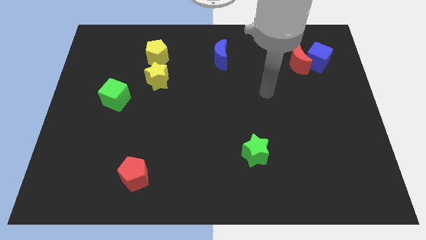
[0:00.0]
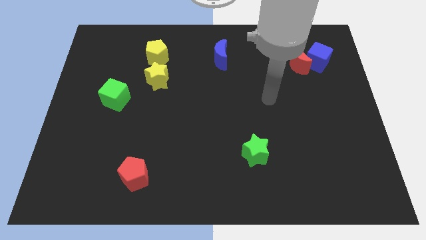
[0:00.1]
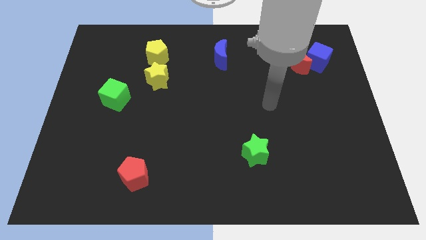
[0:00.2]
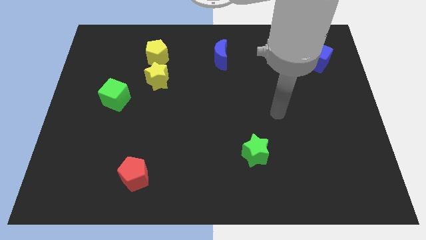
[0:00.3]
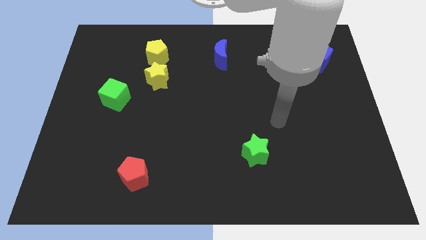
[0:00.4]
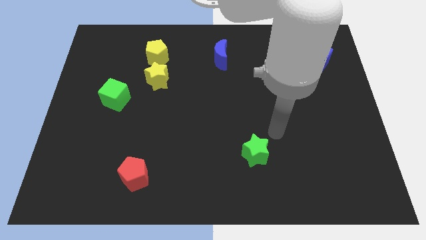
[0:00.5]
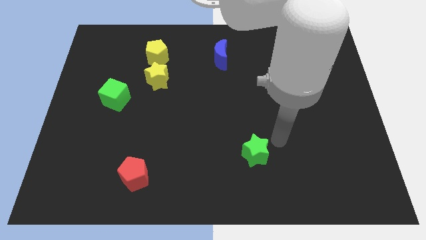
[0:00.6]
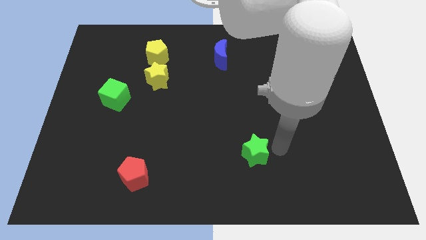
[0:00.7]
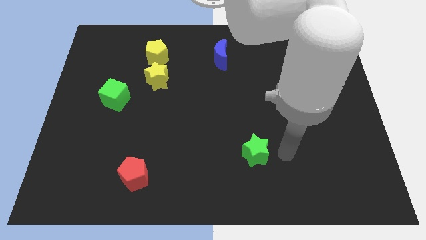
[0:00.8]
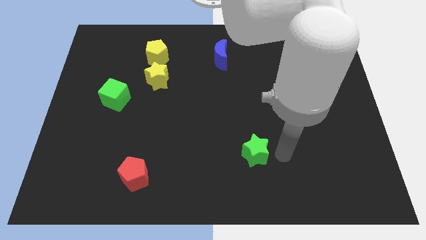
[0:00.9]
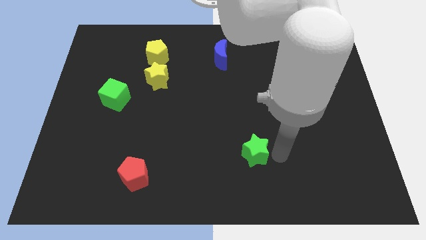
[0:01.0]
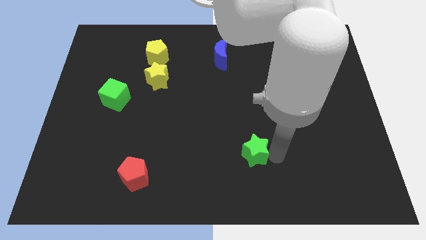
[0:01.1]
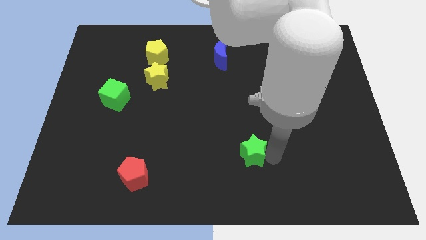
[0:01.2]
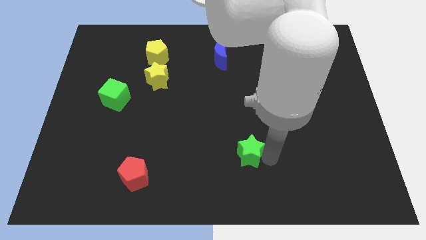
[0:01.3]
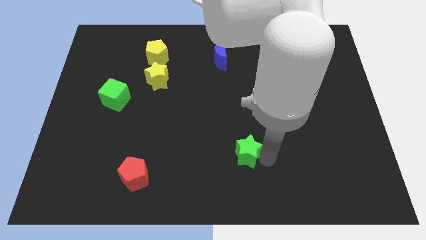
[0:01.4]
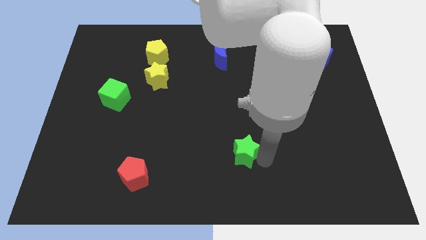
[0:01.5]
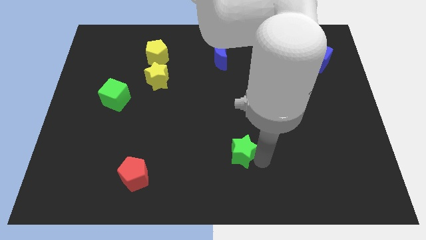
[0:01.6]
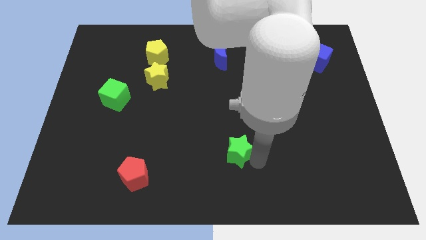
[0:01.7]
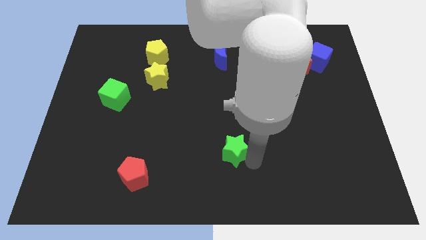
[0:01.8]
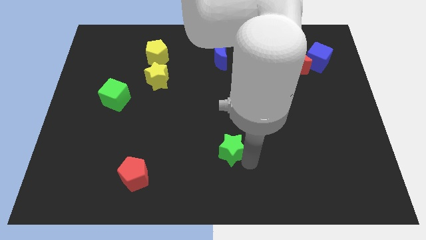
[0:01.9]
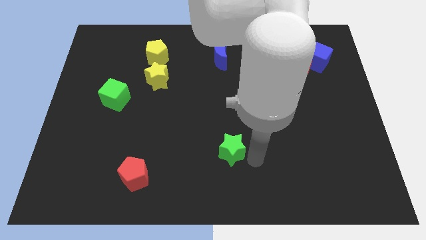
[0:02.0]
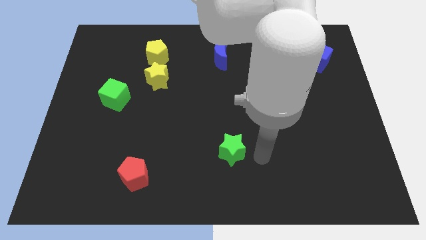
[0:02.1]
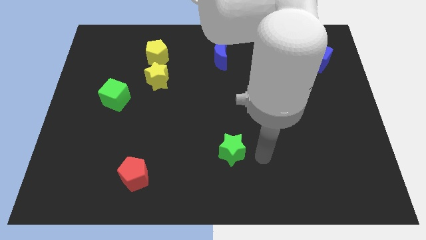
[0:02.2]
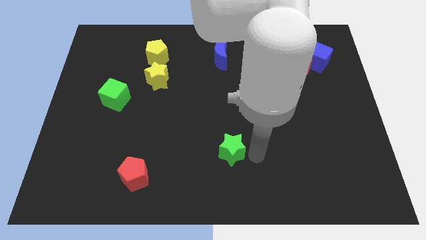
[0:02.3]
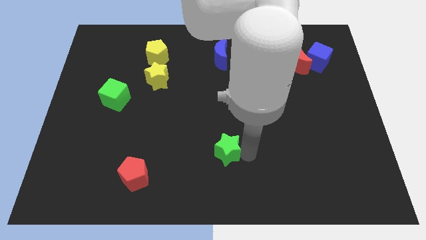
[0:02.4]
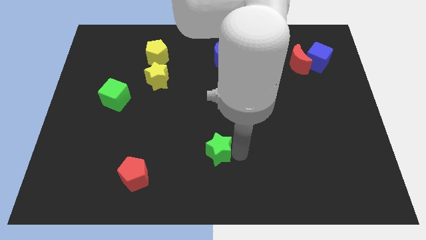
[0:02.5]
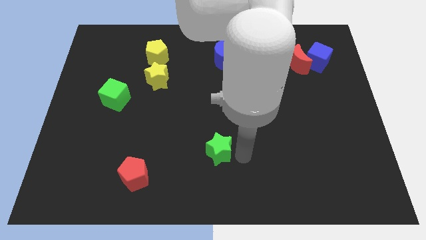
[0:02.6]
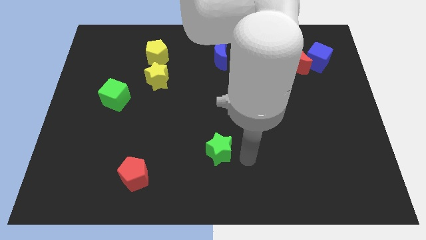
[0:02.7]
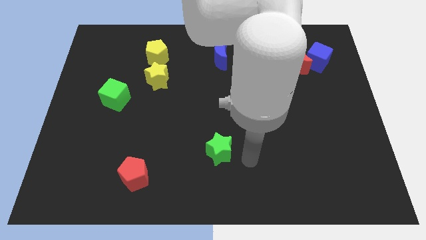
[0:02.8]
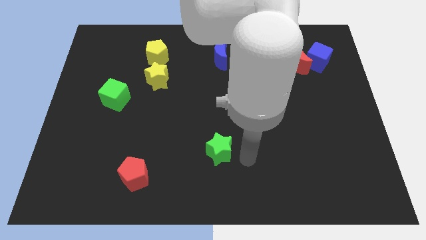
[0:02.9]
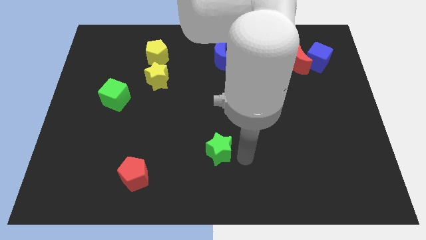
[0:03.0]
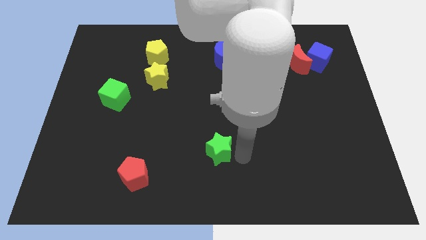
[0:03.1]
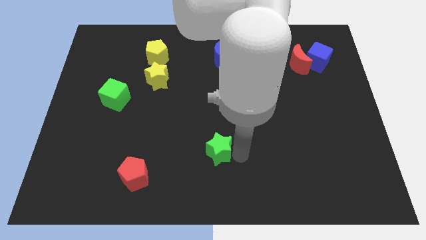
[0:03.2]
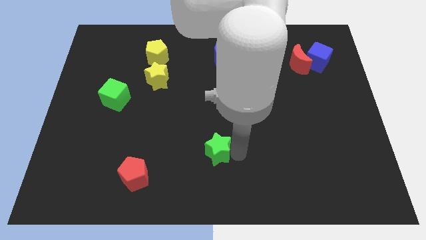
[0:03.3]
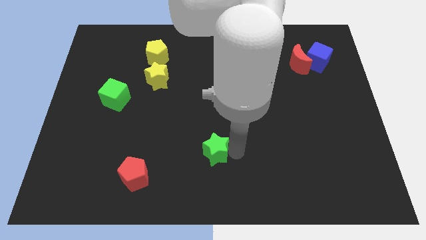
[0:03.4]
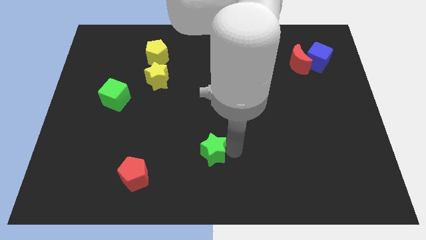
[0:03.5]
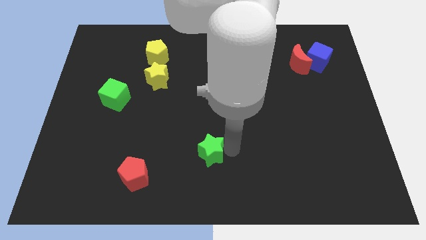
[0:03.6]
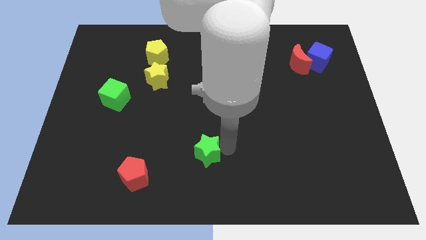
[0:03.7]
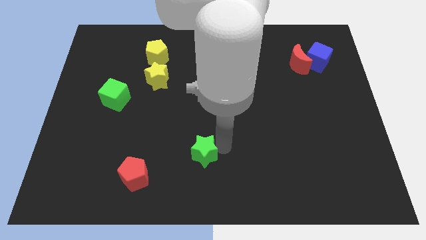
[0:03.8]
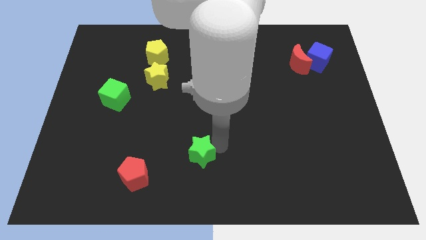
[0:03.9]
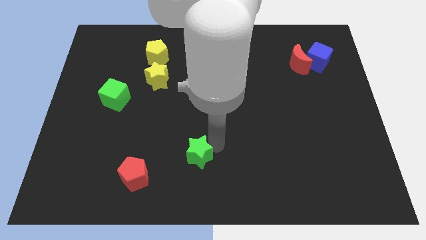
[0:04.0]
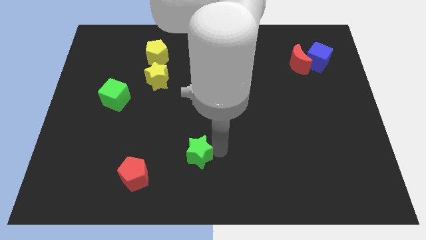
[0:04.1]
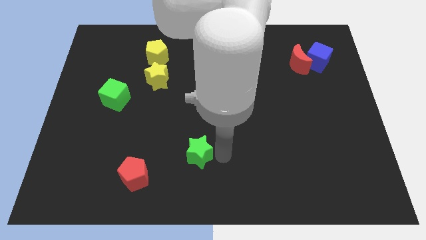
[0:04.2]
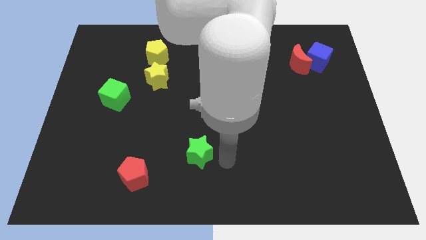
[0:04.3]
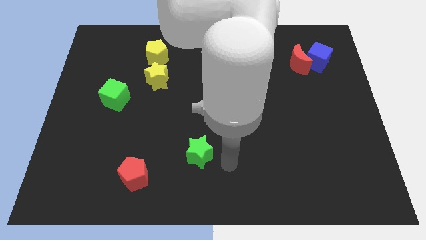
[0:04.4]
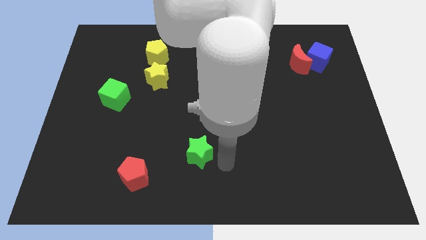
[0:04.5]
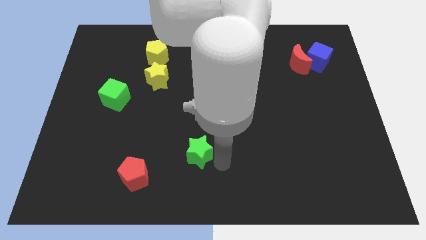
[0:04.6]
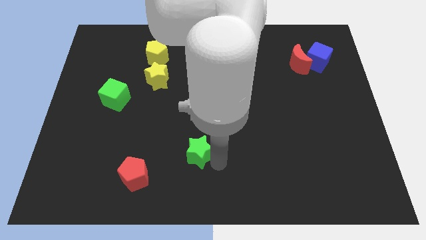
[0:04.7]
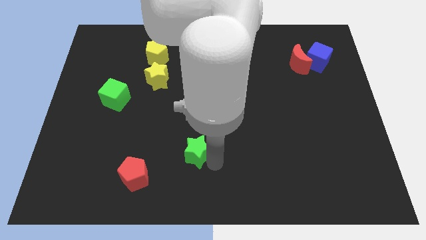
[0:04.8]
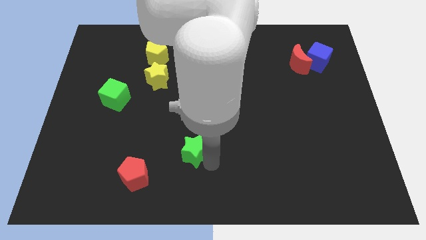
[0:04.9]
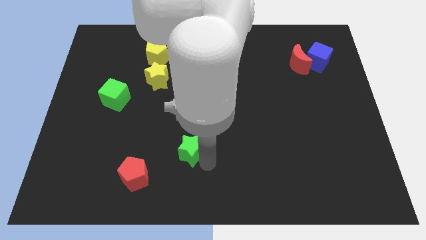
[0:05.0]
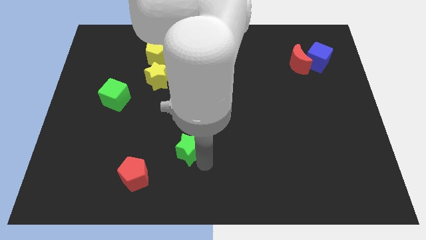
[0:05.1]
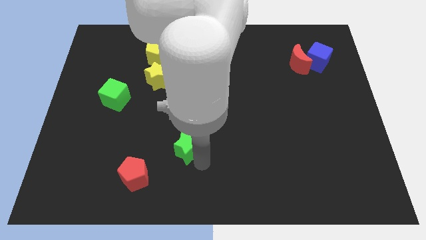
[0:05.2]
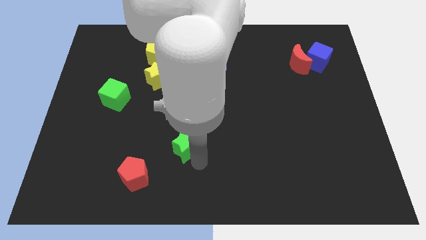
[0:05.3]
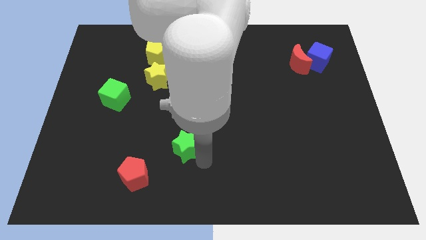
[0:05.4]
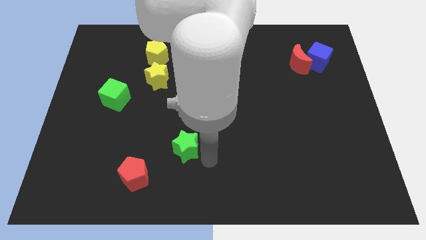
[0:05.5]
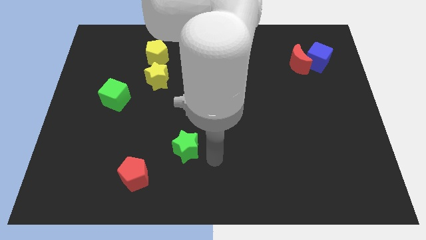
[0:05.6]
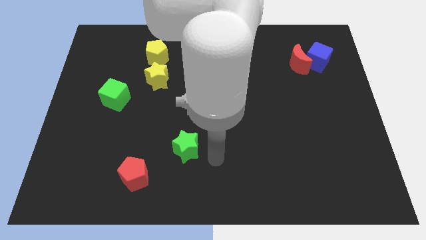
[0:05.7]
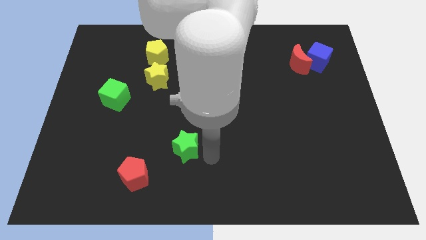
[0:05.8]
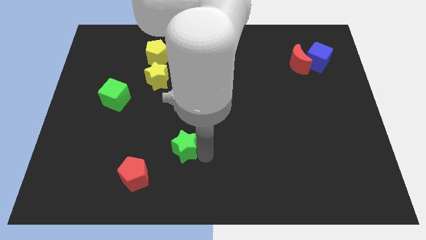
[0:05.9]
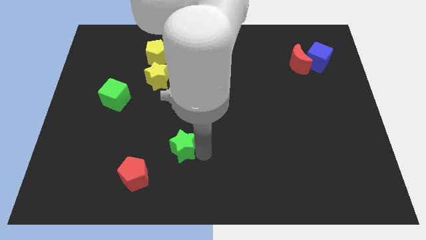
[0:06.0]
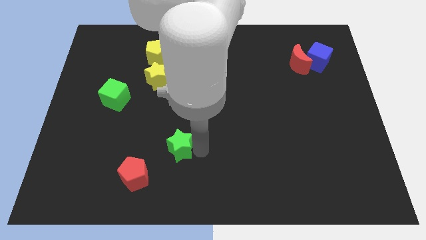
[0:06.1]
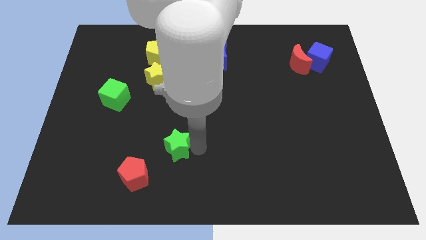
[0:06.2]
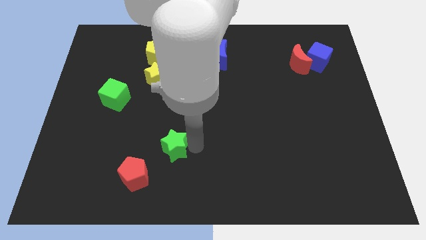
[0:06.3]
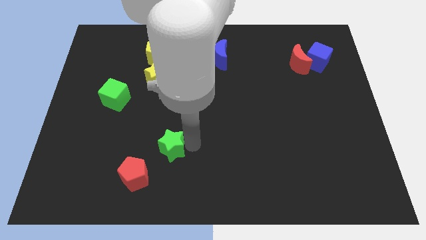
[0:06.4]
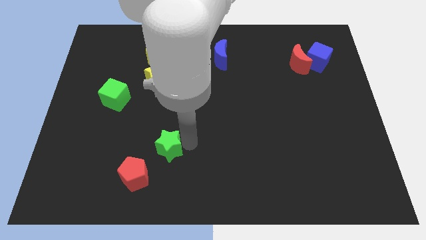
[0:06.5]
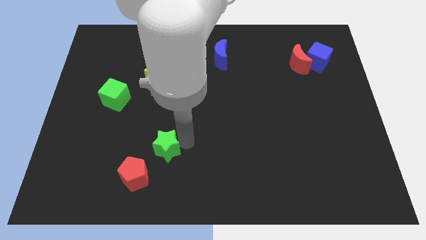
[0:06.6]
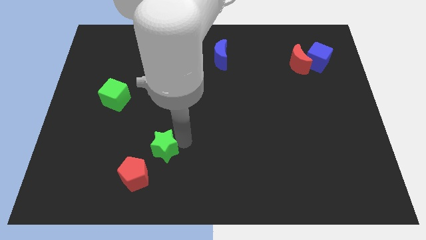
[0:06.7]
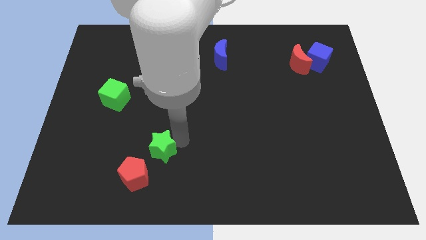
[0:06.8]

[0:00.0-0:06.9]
move the green star left

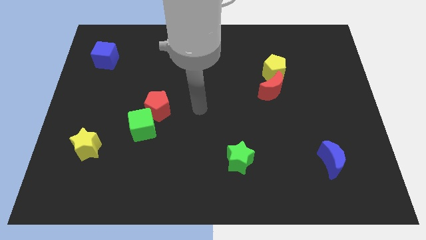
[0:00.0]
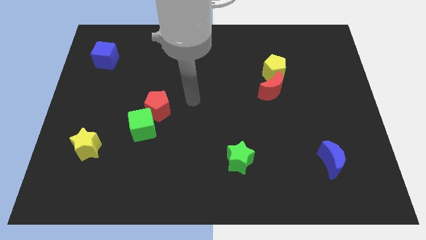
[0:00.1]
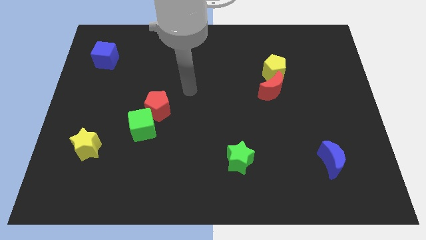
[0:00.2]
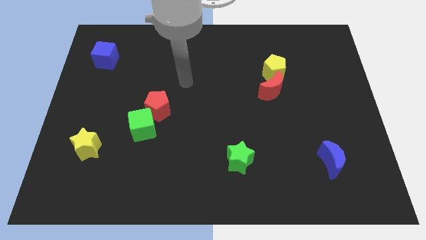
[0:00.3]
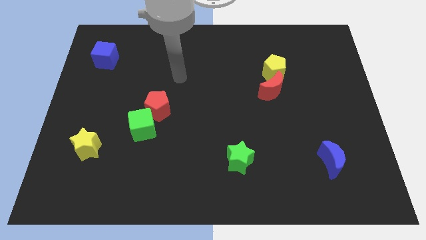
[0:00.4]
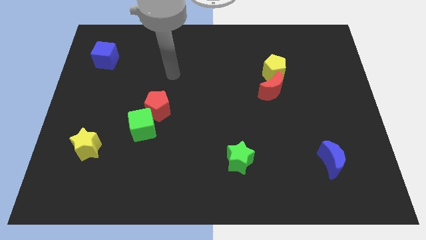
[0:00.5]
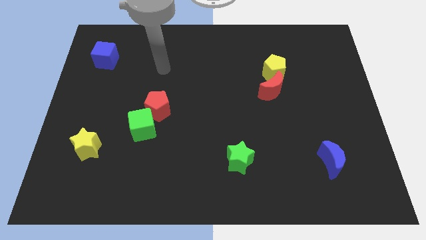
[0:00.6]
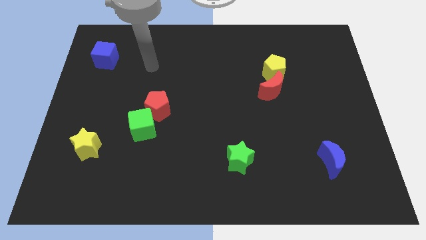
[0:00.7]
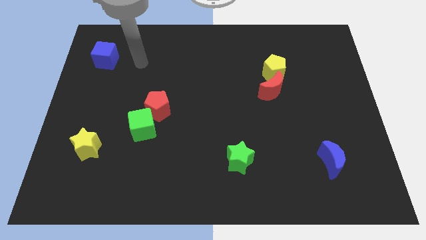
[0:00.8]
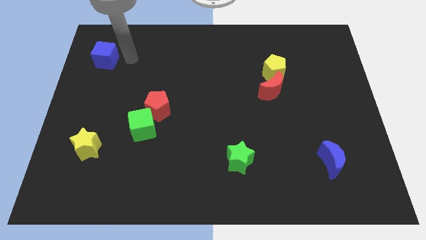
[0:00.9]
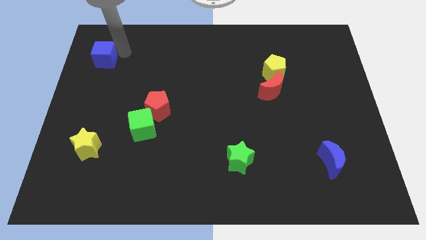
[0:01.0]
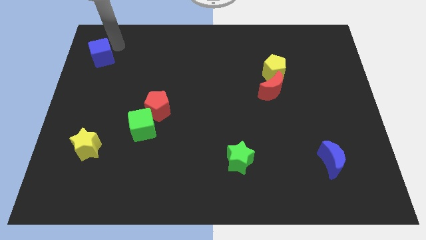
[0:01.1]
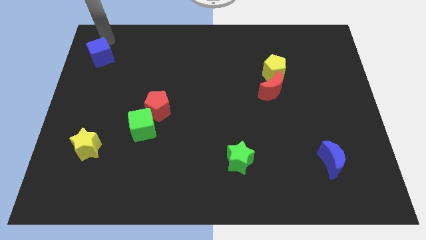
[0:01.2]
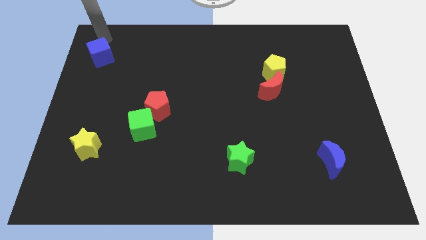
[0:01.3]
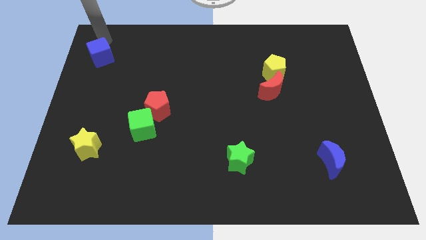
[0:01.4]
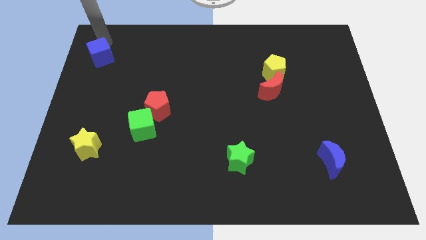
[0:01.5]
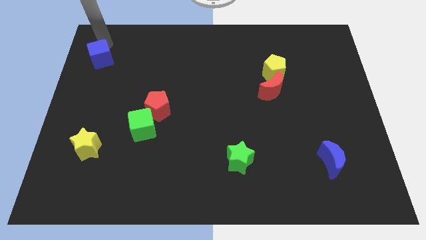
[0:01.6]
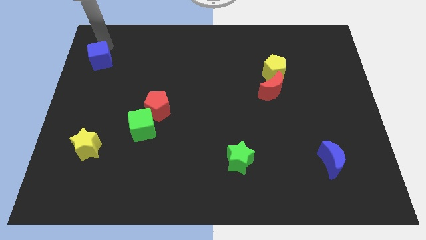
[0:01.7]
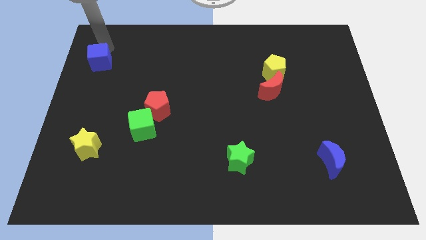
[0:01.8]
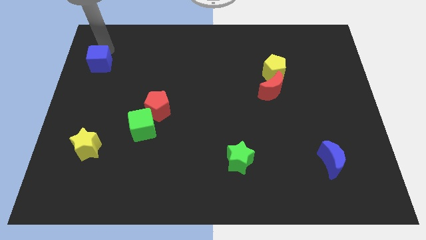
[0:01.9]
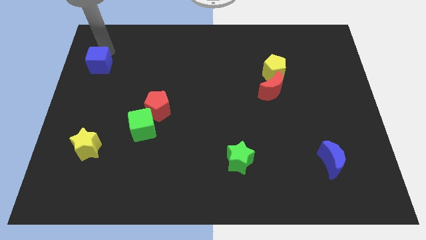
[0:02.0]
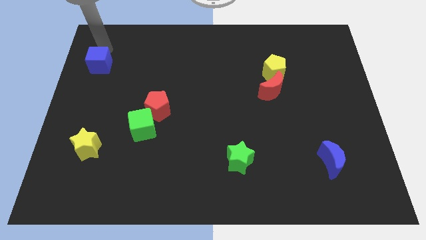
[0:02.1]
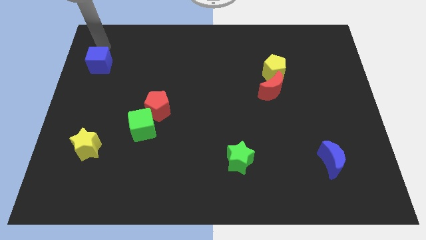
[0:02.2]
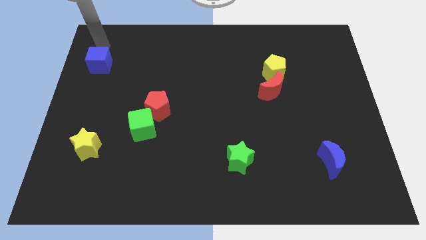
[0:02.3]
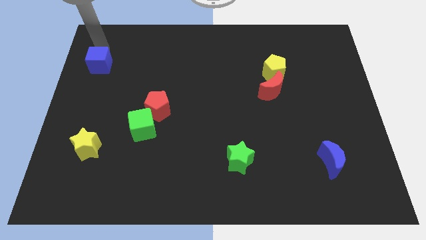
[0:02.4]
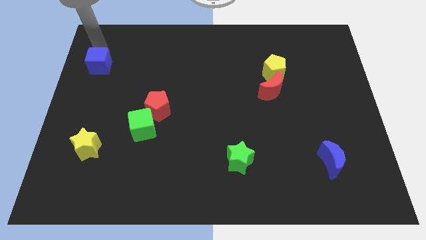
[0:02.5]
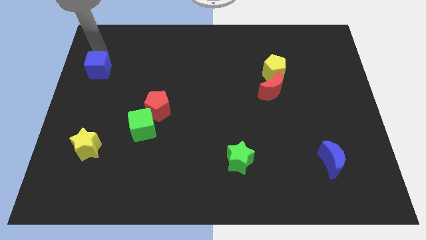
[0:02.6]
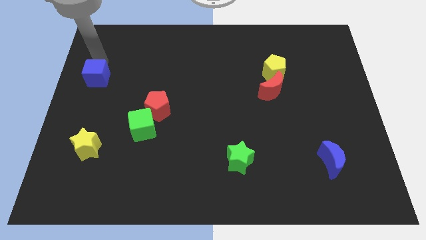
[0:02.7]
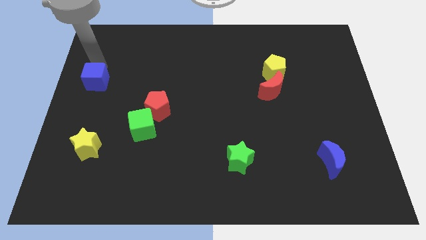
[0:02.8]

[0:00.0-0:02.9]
move the blue cube a little bit downwards
